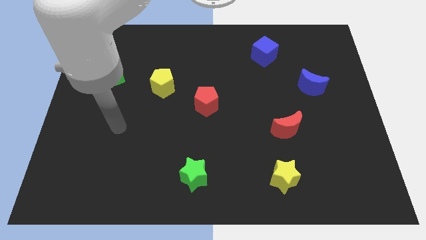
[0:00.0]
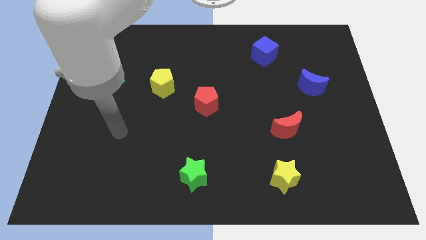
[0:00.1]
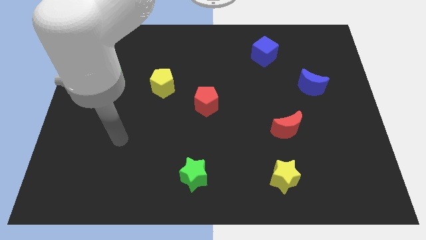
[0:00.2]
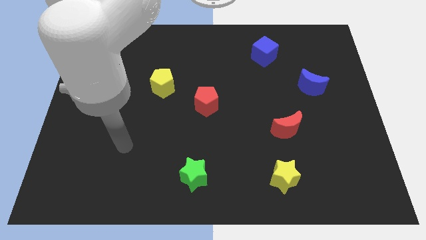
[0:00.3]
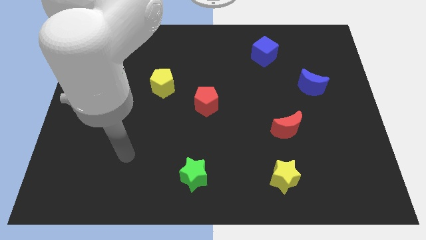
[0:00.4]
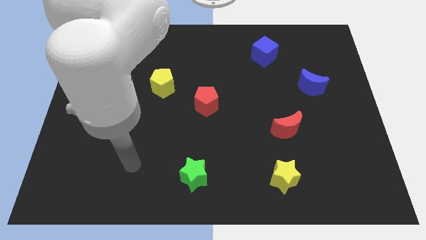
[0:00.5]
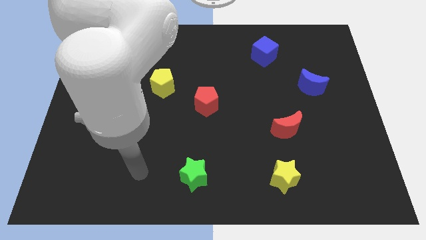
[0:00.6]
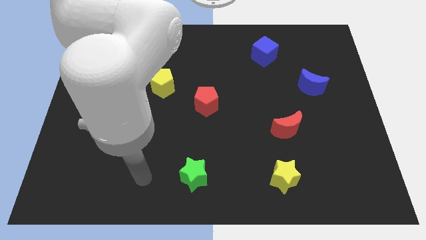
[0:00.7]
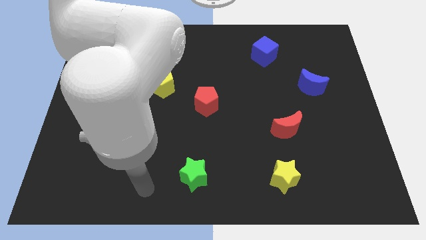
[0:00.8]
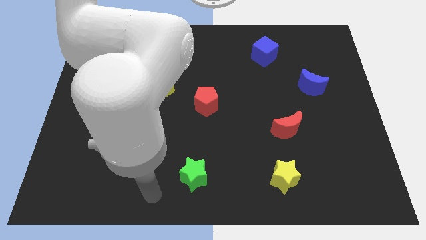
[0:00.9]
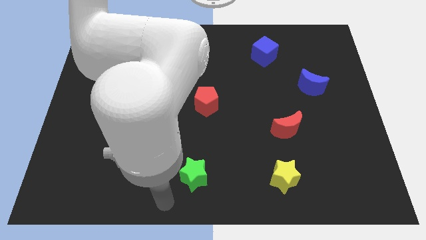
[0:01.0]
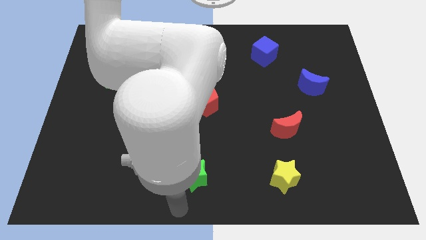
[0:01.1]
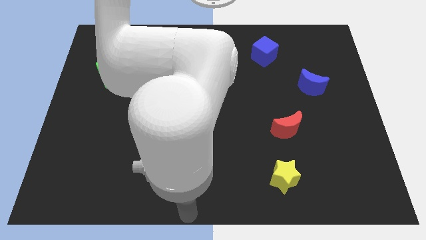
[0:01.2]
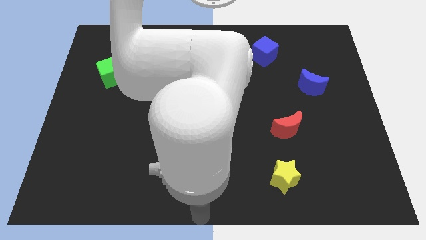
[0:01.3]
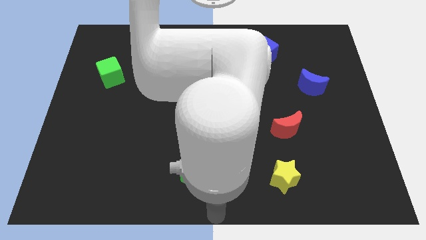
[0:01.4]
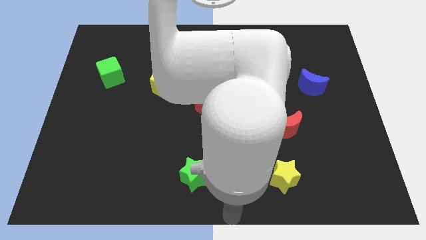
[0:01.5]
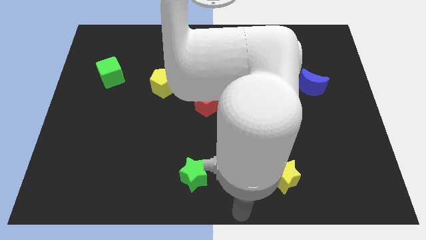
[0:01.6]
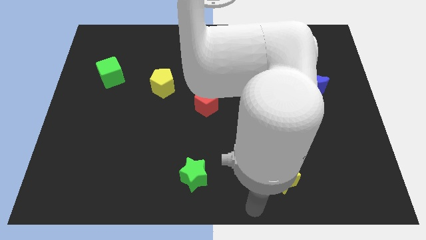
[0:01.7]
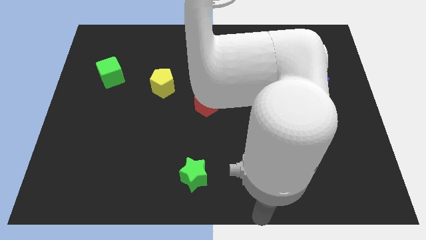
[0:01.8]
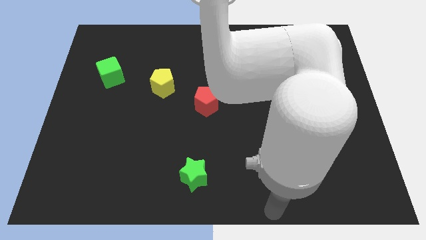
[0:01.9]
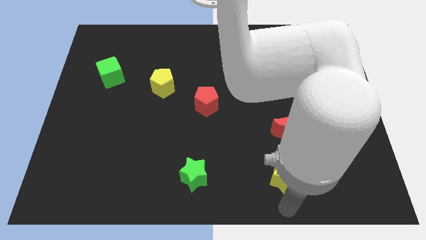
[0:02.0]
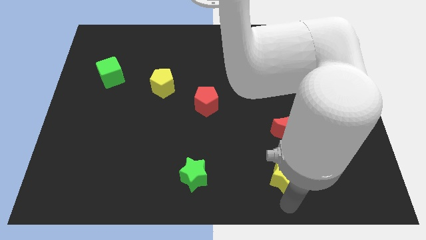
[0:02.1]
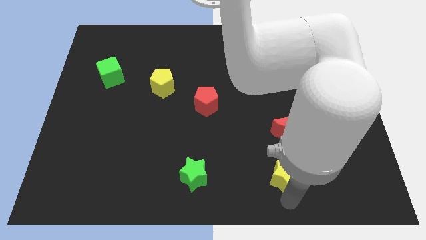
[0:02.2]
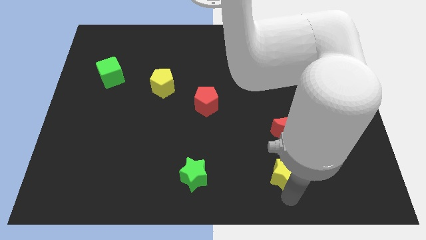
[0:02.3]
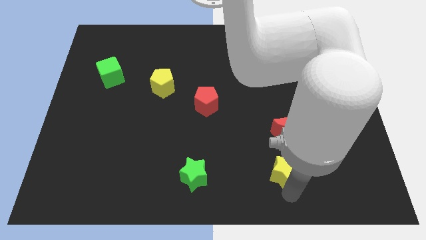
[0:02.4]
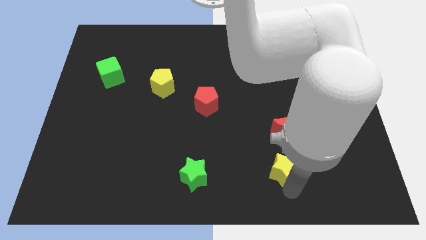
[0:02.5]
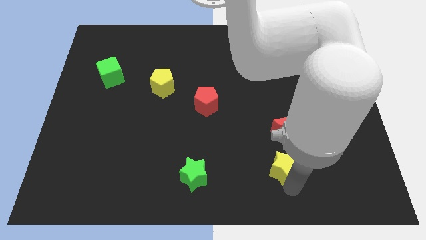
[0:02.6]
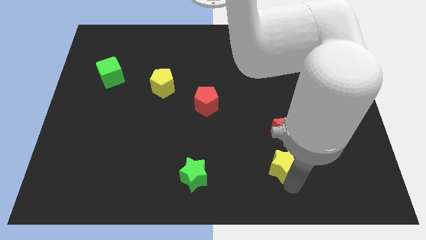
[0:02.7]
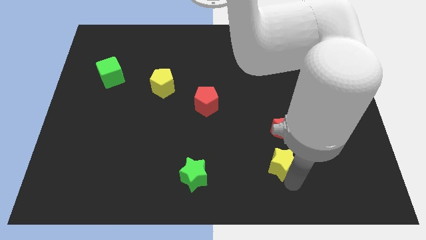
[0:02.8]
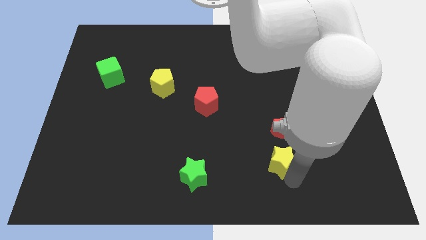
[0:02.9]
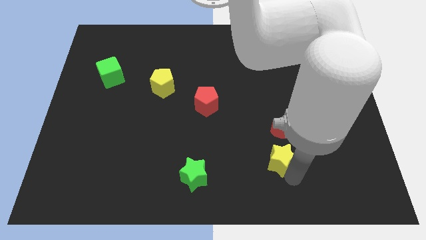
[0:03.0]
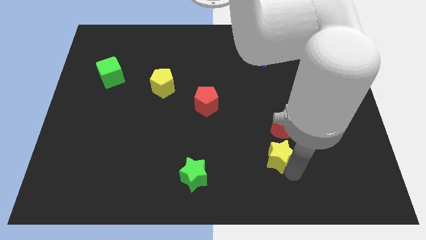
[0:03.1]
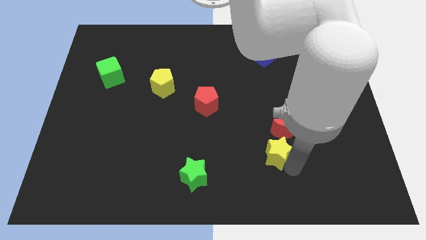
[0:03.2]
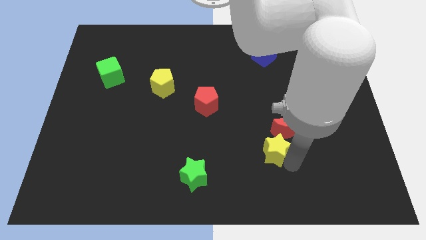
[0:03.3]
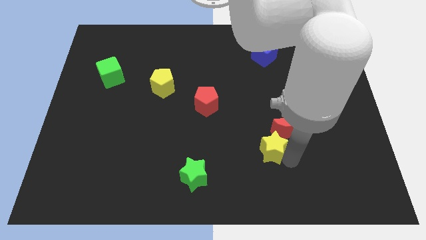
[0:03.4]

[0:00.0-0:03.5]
slide the yellow star somewhat up

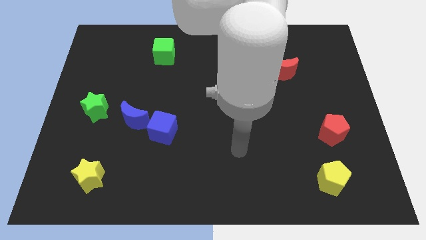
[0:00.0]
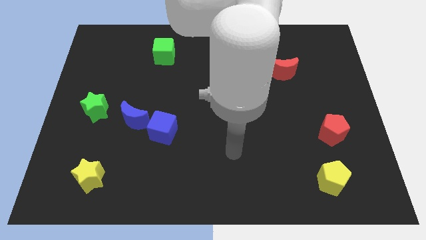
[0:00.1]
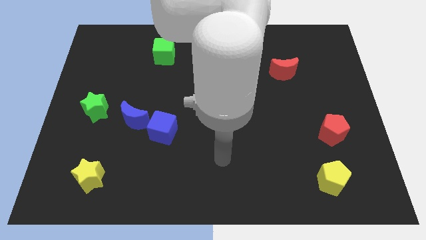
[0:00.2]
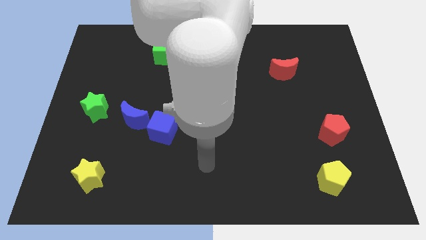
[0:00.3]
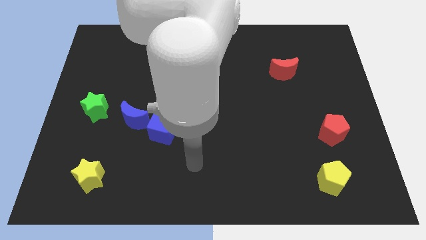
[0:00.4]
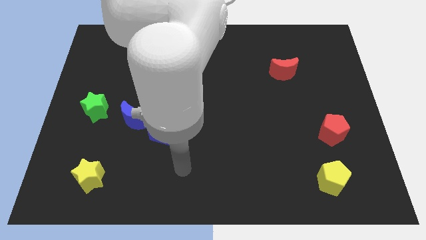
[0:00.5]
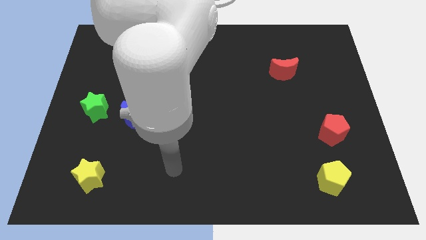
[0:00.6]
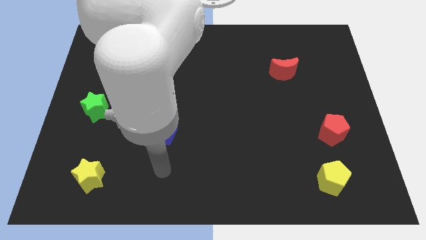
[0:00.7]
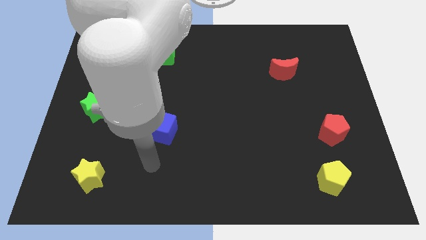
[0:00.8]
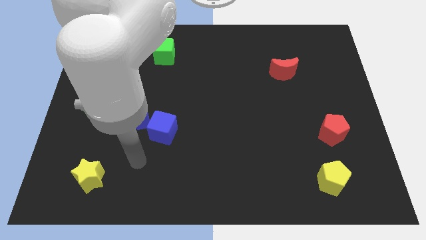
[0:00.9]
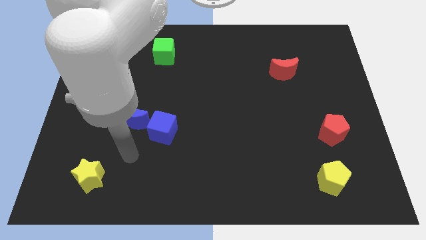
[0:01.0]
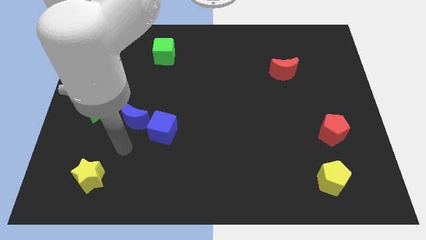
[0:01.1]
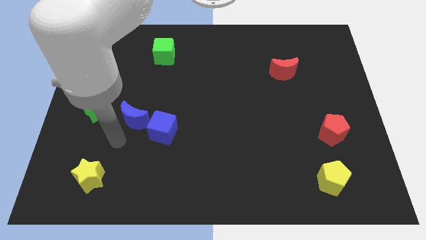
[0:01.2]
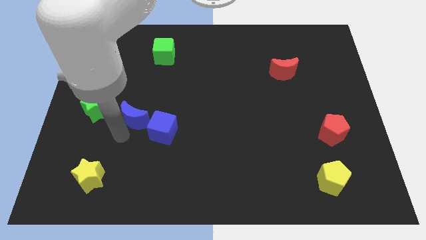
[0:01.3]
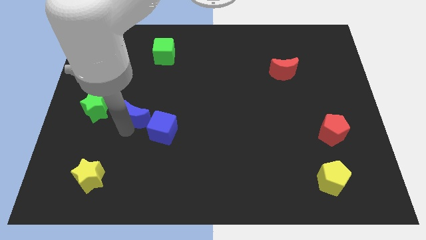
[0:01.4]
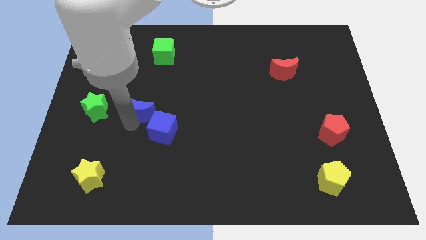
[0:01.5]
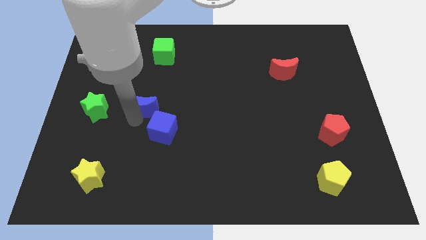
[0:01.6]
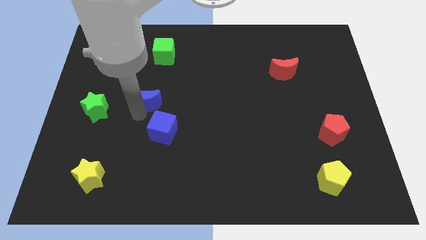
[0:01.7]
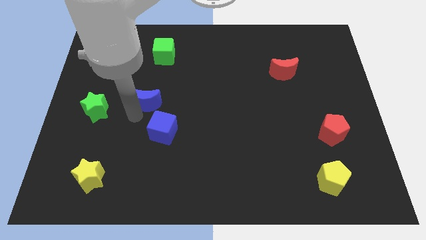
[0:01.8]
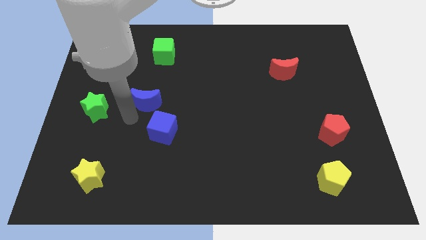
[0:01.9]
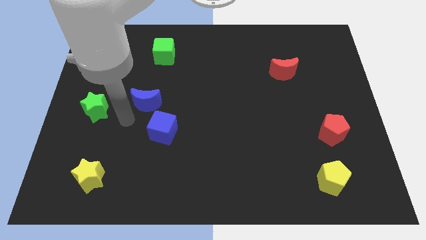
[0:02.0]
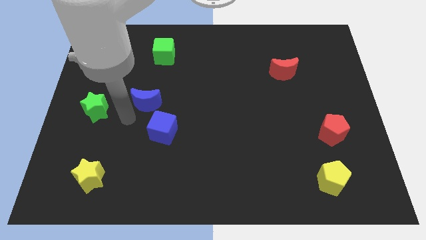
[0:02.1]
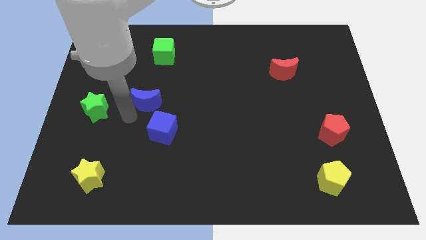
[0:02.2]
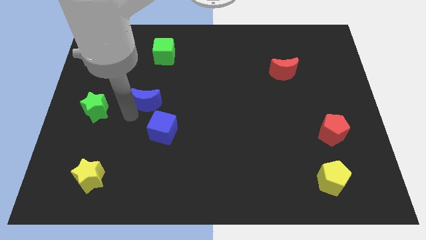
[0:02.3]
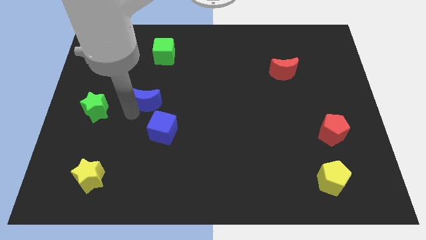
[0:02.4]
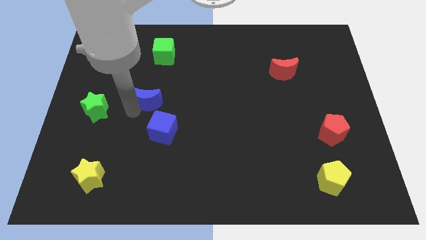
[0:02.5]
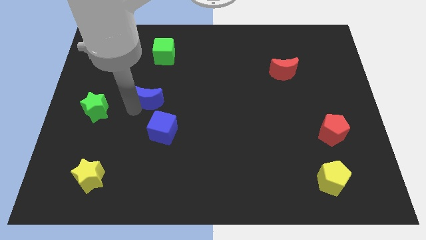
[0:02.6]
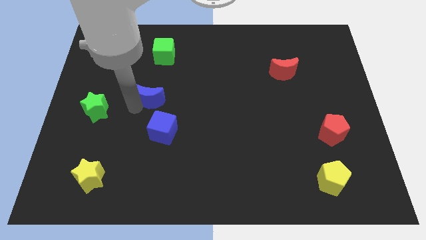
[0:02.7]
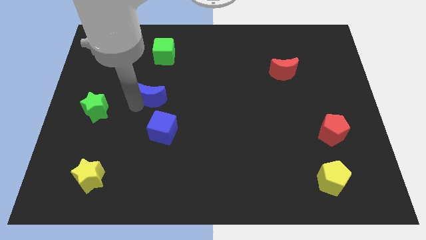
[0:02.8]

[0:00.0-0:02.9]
slide the blue moon a little bit up and right diagonally

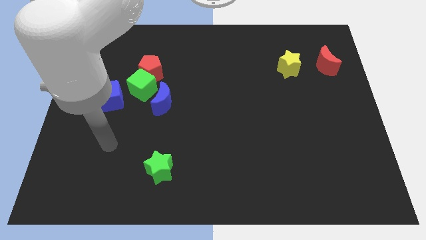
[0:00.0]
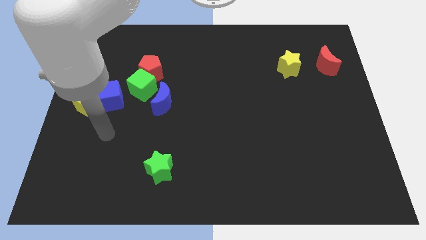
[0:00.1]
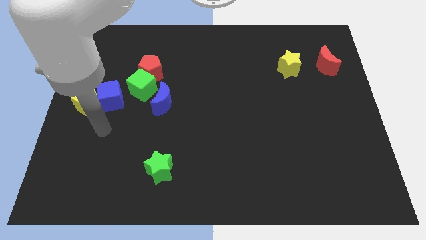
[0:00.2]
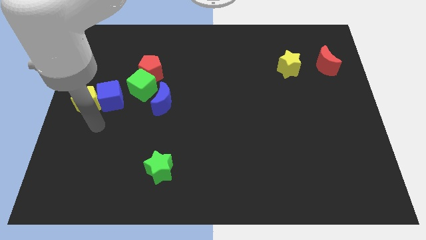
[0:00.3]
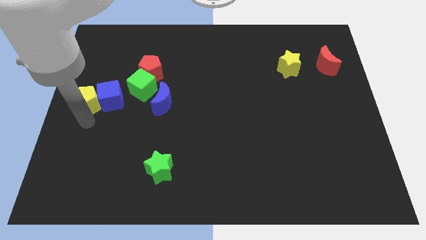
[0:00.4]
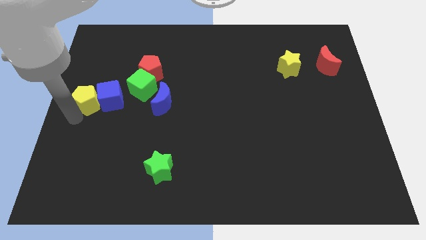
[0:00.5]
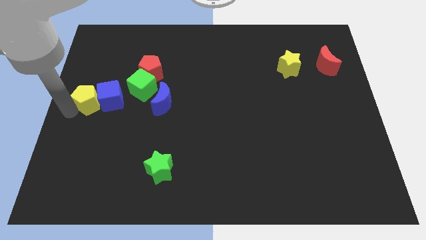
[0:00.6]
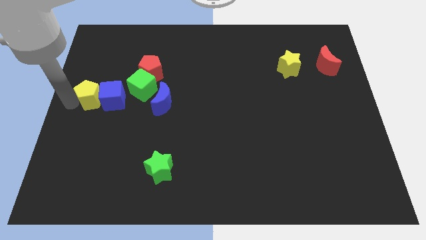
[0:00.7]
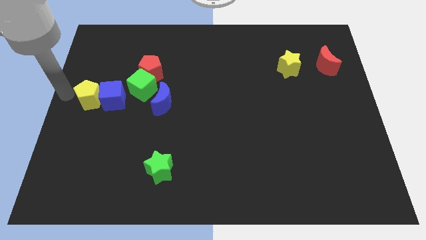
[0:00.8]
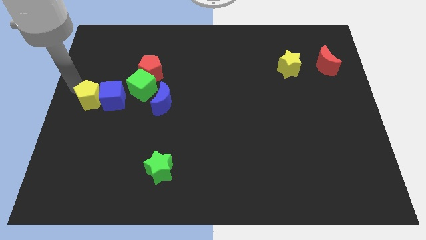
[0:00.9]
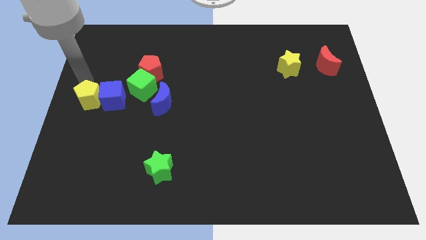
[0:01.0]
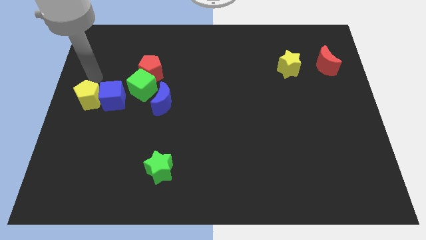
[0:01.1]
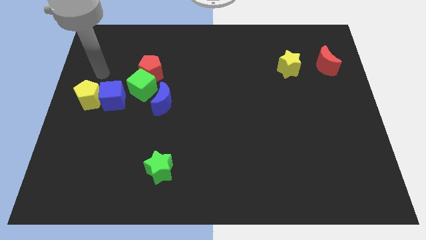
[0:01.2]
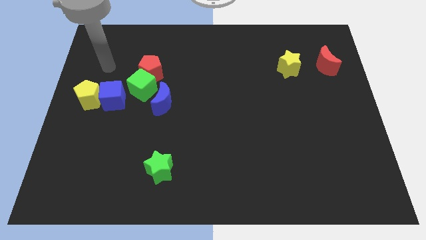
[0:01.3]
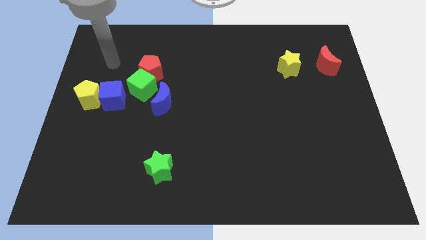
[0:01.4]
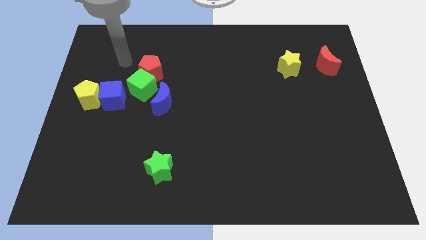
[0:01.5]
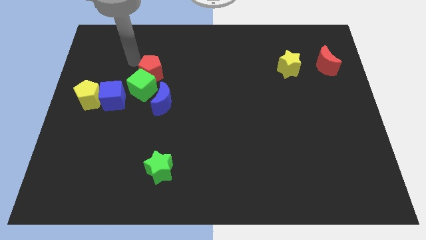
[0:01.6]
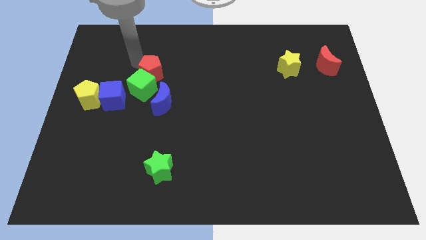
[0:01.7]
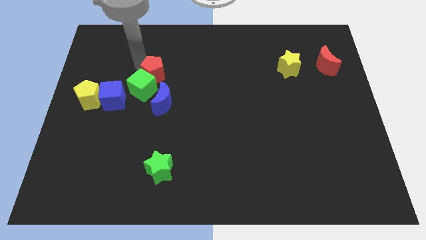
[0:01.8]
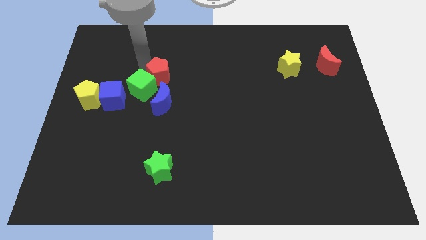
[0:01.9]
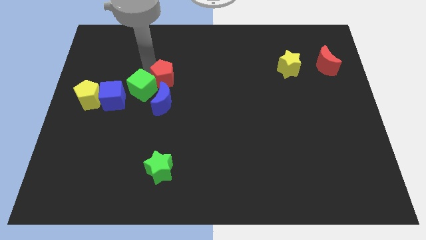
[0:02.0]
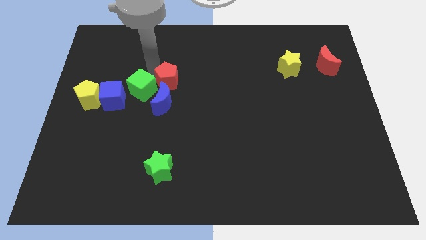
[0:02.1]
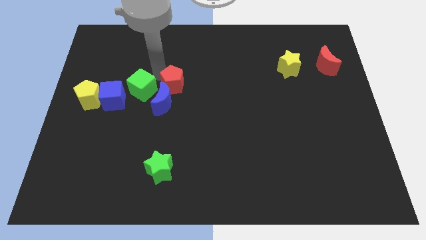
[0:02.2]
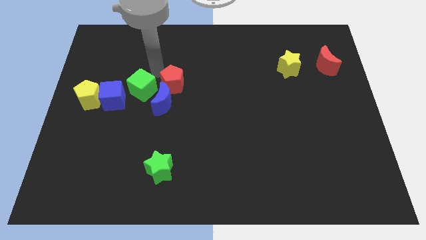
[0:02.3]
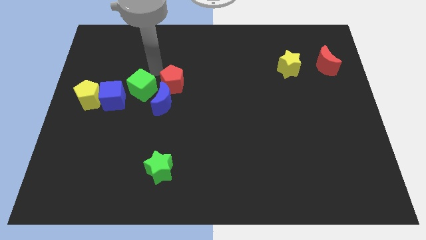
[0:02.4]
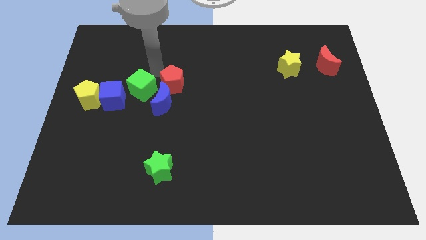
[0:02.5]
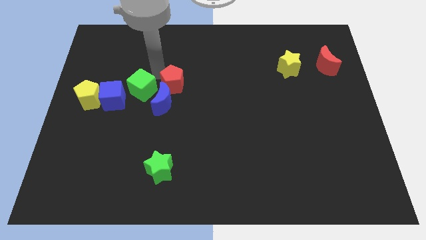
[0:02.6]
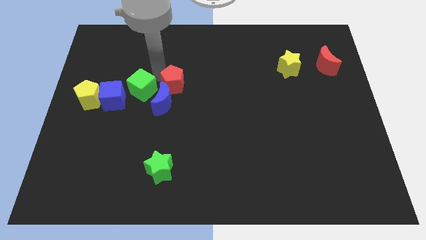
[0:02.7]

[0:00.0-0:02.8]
push the red pentagon slightly downwards and to the right diagonally
